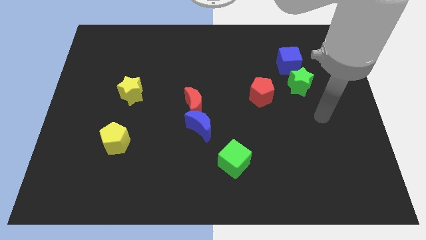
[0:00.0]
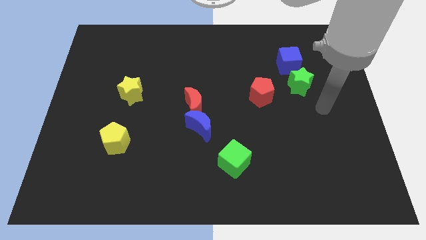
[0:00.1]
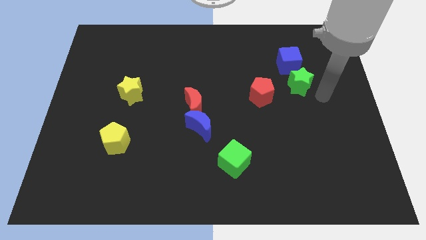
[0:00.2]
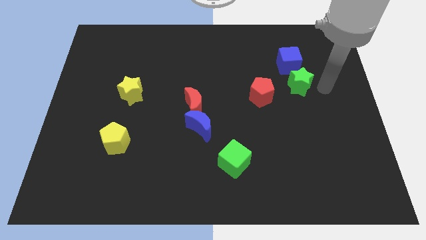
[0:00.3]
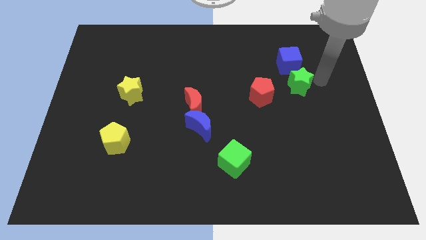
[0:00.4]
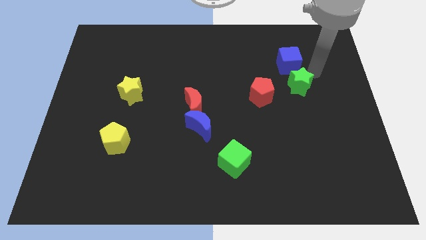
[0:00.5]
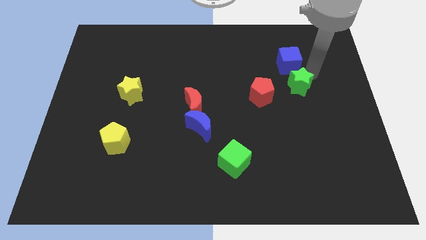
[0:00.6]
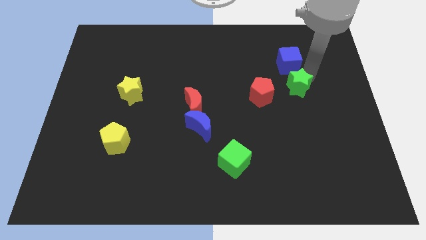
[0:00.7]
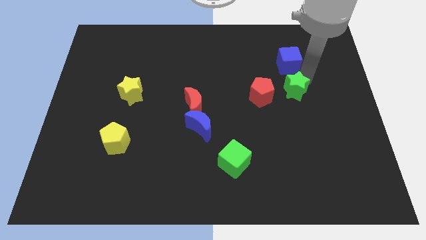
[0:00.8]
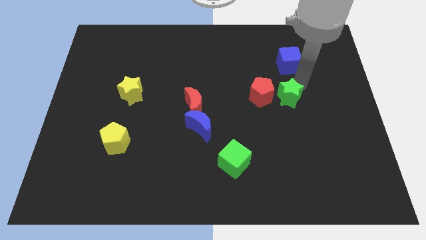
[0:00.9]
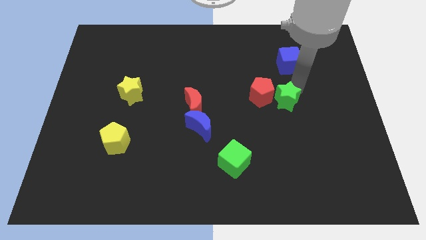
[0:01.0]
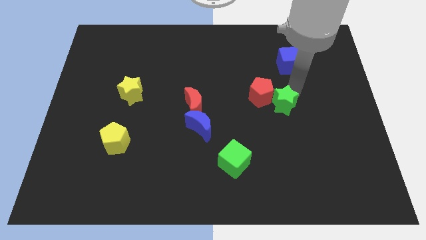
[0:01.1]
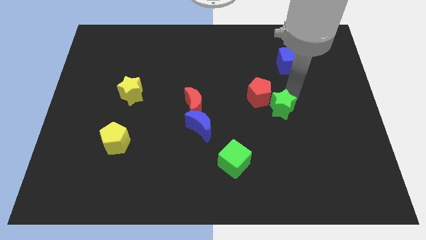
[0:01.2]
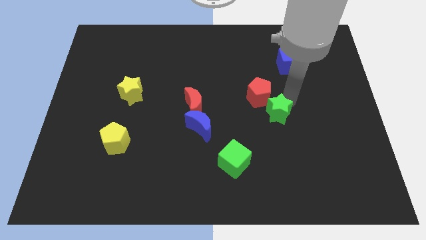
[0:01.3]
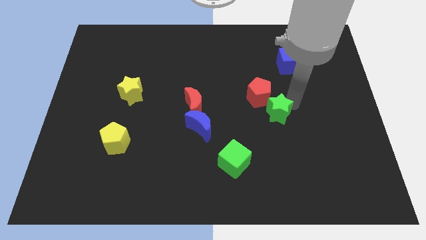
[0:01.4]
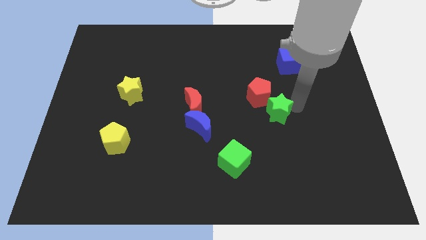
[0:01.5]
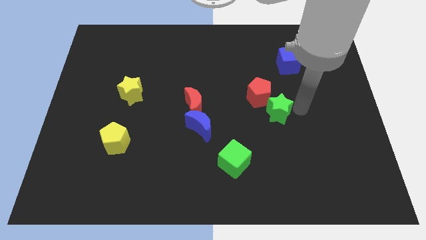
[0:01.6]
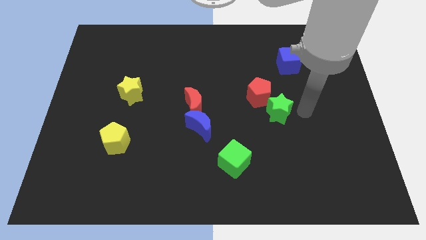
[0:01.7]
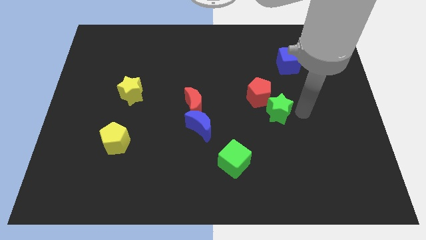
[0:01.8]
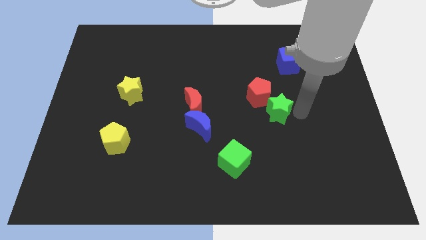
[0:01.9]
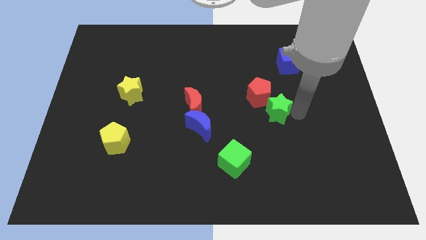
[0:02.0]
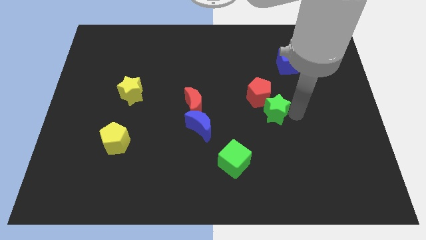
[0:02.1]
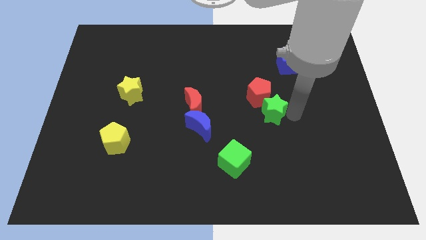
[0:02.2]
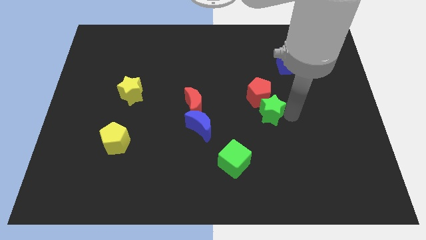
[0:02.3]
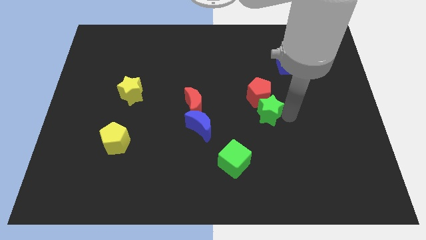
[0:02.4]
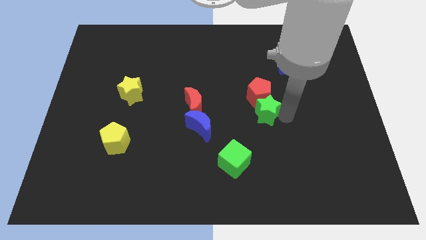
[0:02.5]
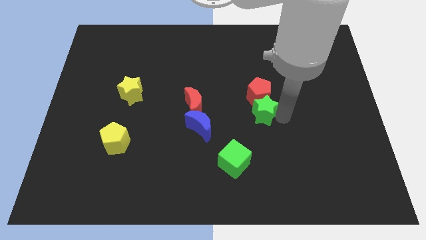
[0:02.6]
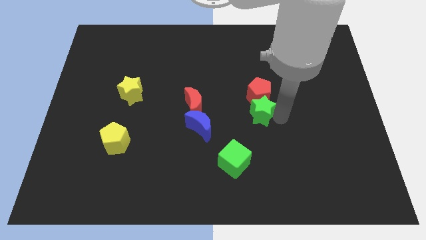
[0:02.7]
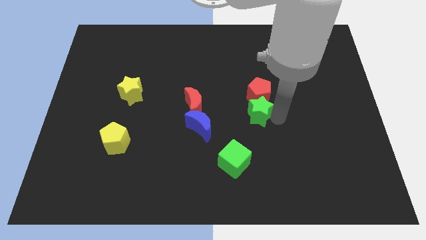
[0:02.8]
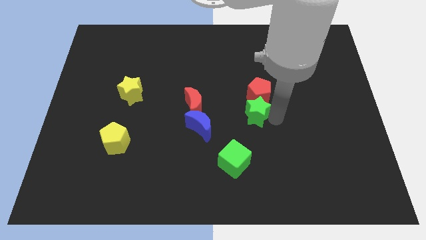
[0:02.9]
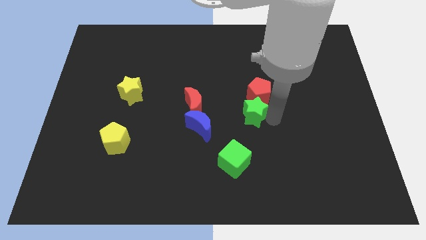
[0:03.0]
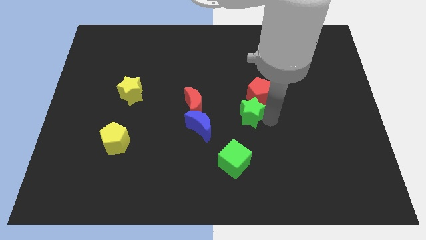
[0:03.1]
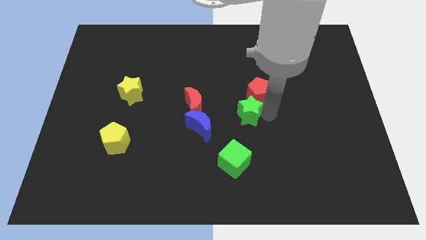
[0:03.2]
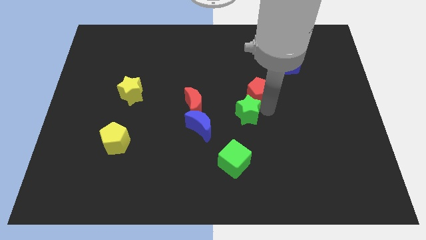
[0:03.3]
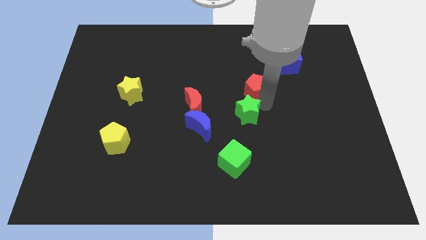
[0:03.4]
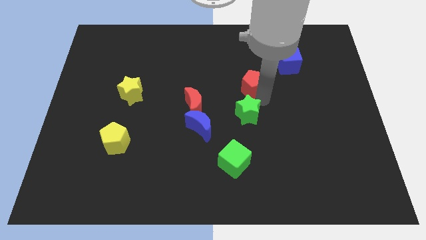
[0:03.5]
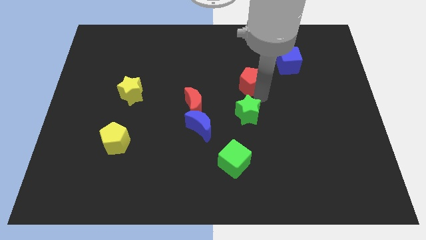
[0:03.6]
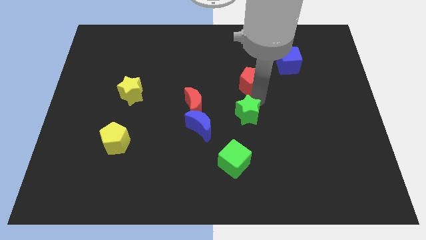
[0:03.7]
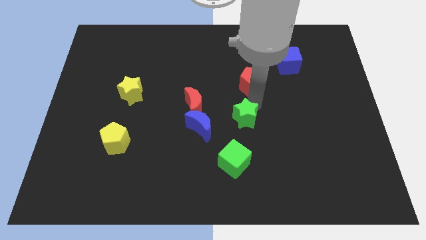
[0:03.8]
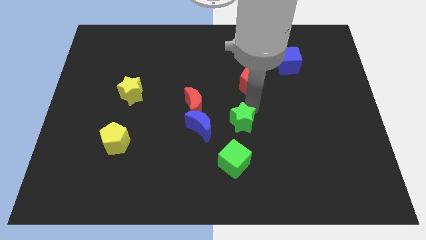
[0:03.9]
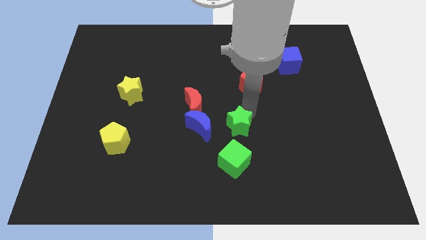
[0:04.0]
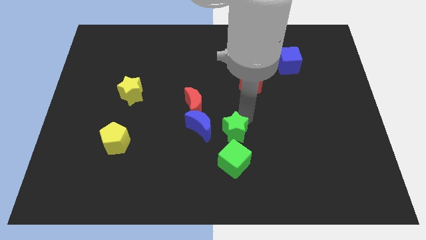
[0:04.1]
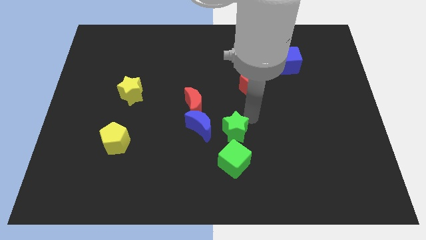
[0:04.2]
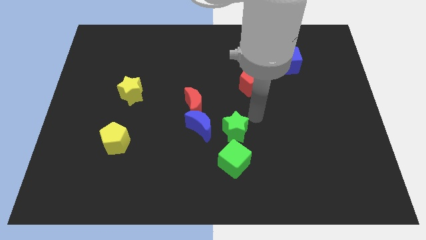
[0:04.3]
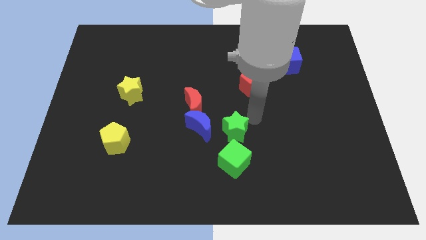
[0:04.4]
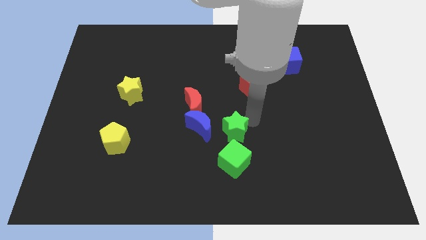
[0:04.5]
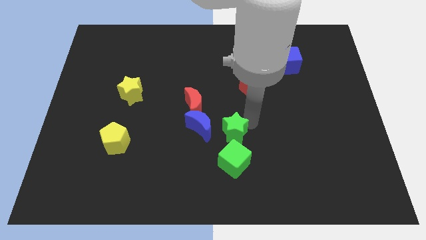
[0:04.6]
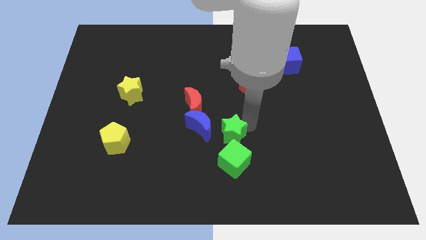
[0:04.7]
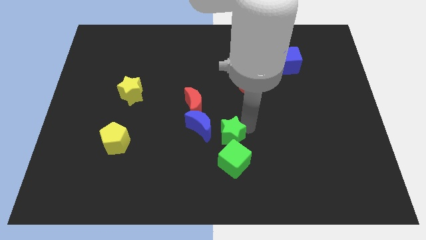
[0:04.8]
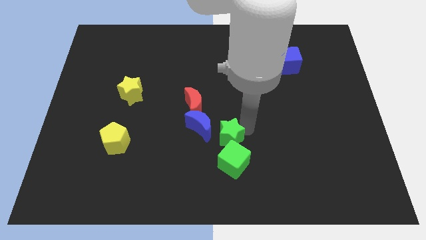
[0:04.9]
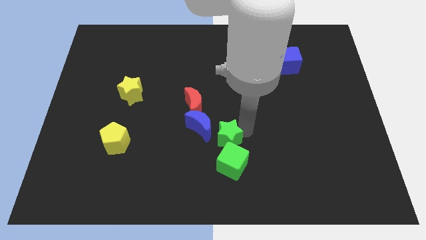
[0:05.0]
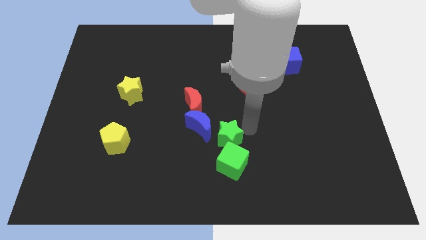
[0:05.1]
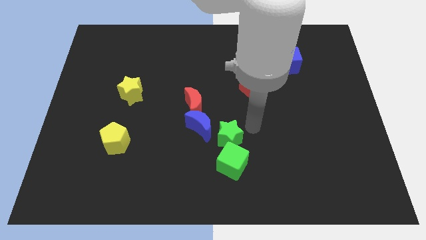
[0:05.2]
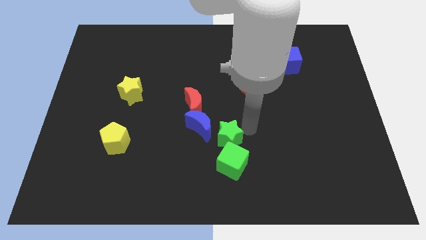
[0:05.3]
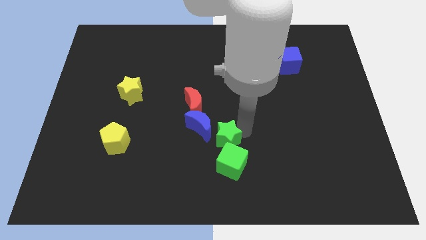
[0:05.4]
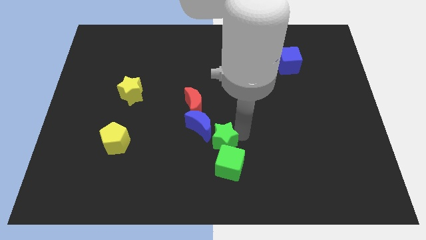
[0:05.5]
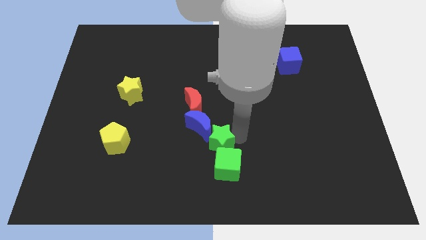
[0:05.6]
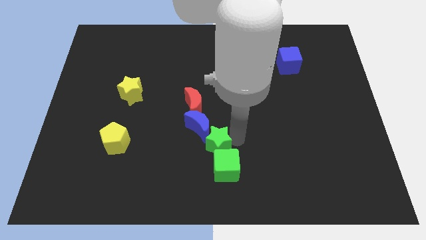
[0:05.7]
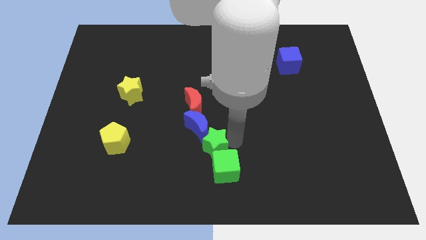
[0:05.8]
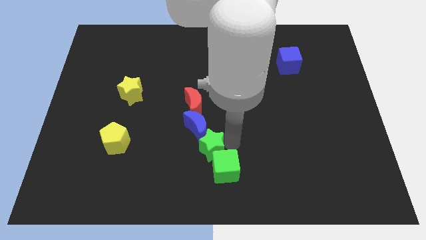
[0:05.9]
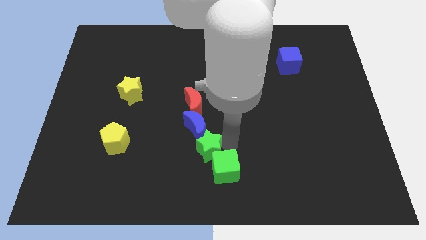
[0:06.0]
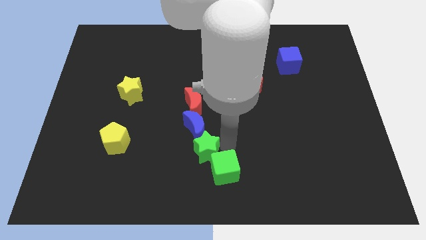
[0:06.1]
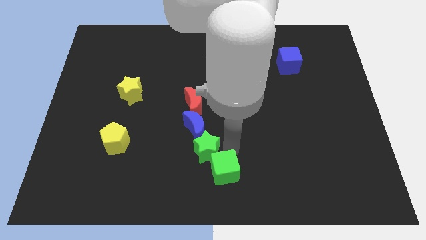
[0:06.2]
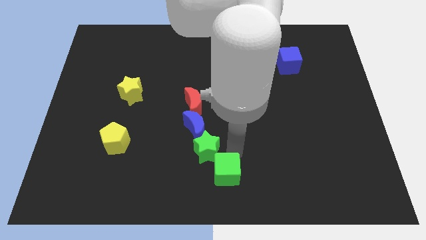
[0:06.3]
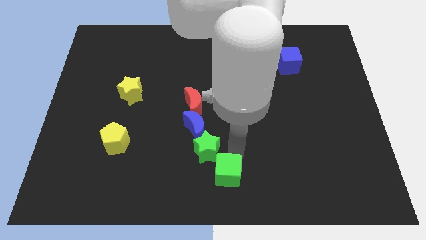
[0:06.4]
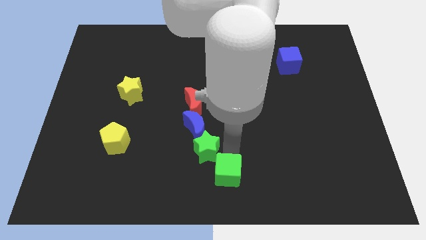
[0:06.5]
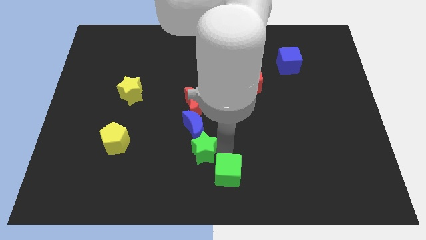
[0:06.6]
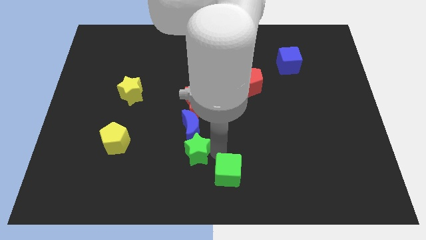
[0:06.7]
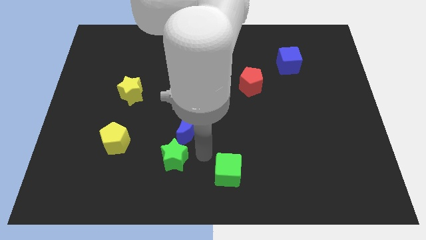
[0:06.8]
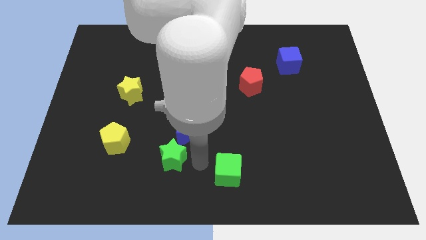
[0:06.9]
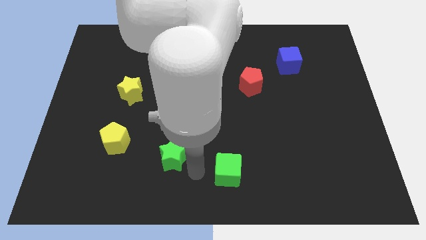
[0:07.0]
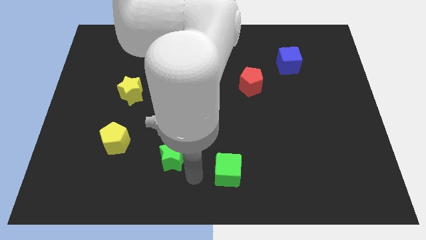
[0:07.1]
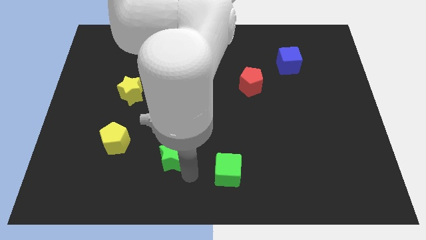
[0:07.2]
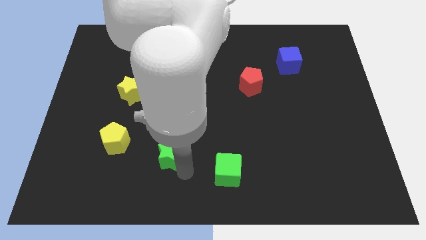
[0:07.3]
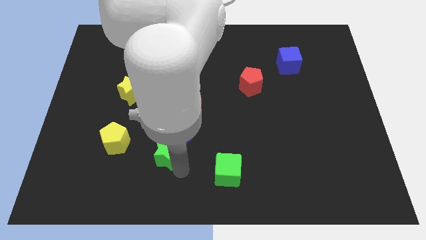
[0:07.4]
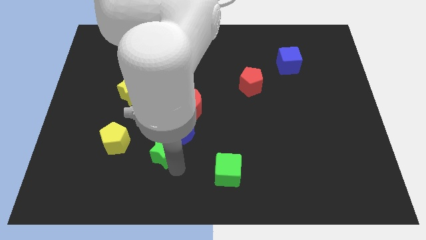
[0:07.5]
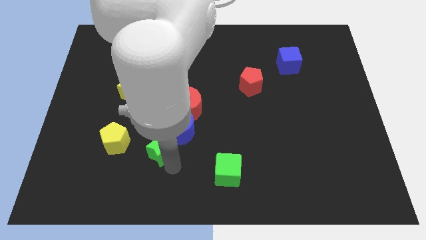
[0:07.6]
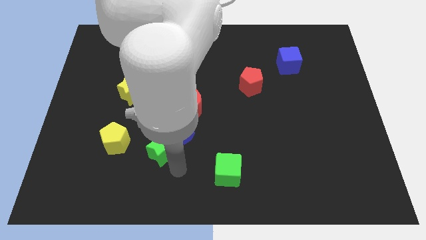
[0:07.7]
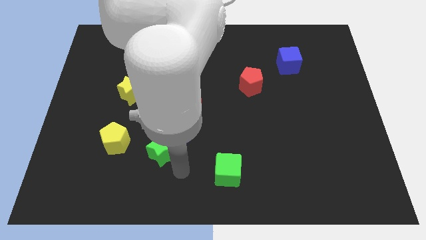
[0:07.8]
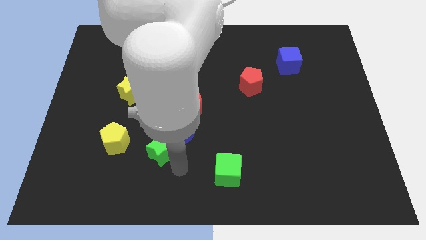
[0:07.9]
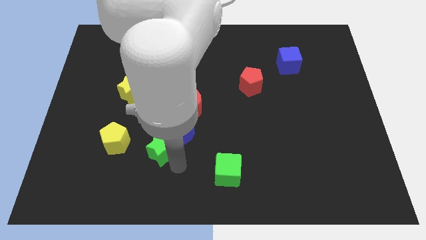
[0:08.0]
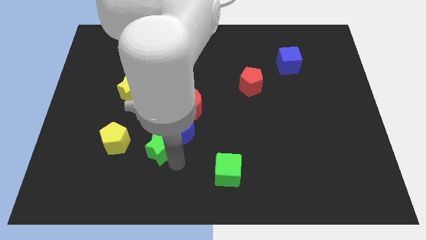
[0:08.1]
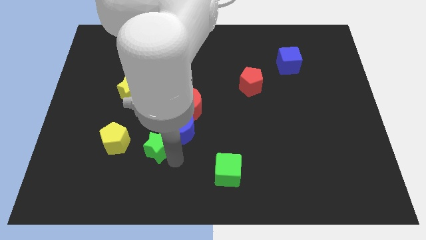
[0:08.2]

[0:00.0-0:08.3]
put the green star to the left of the blue moon
